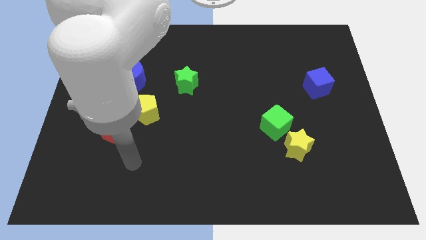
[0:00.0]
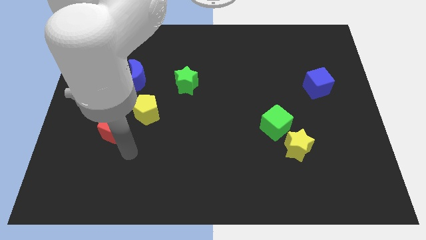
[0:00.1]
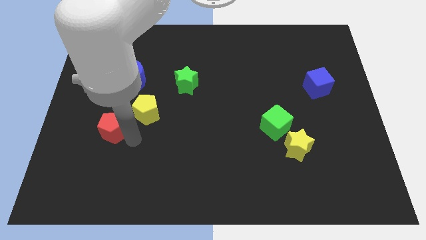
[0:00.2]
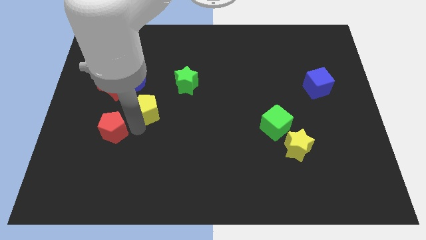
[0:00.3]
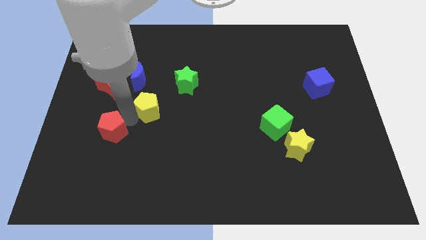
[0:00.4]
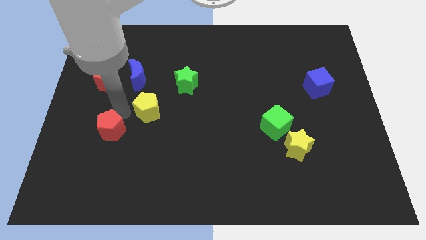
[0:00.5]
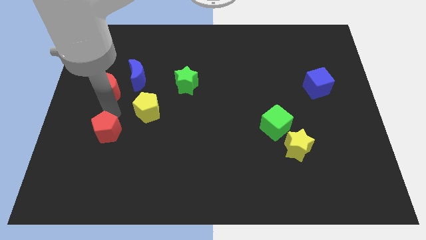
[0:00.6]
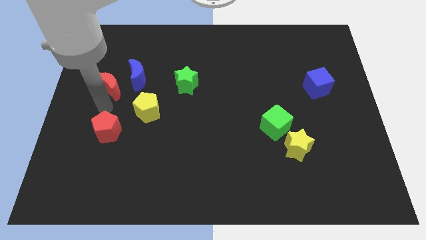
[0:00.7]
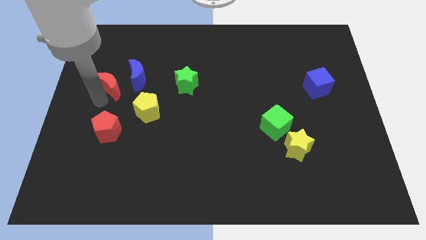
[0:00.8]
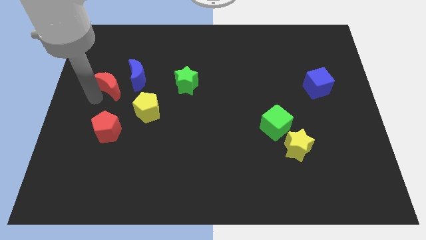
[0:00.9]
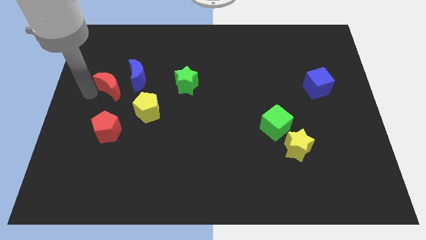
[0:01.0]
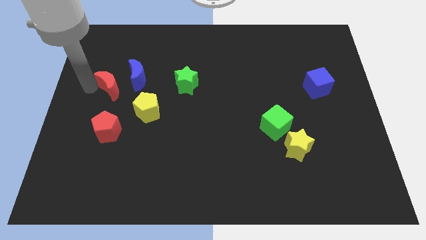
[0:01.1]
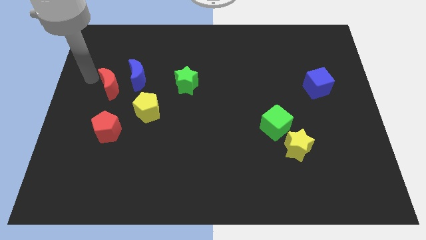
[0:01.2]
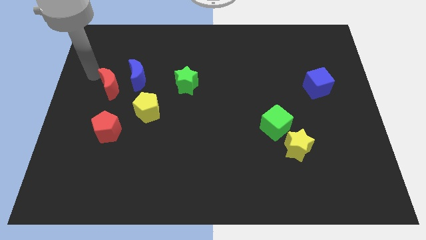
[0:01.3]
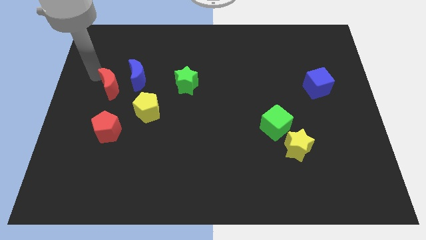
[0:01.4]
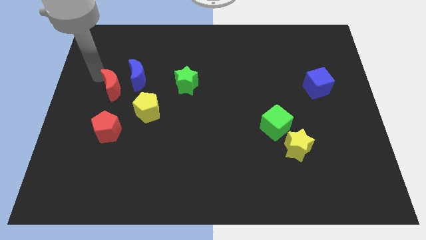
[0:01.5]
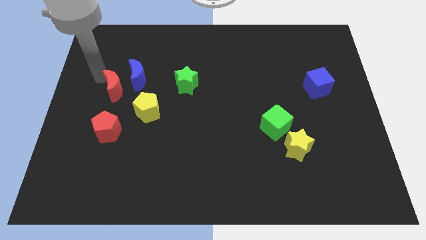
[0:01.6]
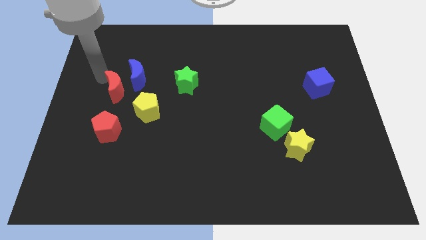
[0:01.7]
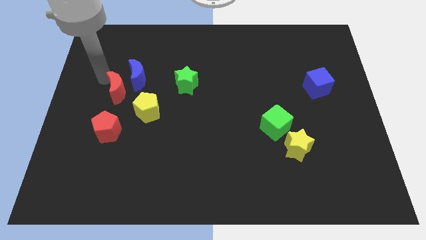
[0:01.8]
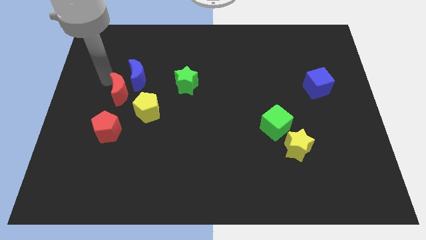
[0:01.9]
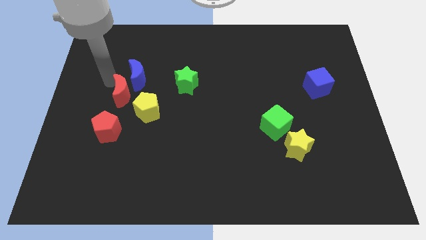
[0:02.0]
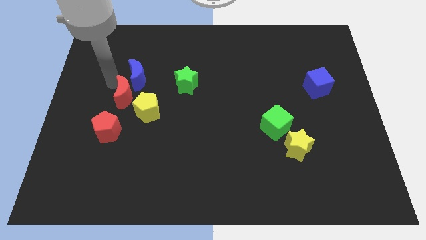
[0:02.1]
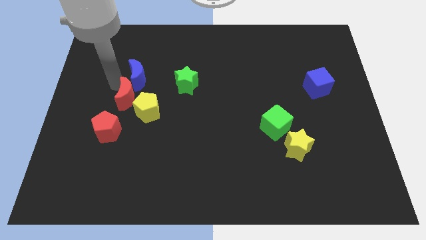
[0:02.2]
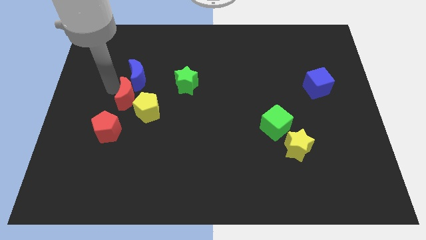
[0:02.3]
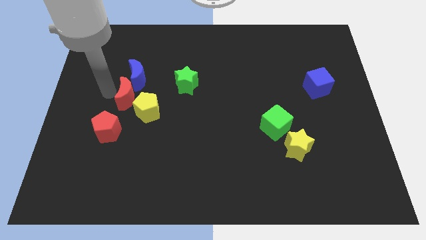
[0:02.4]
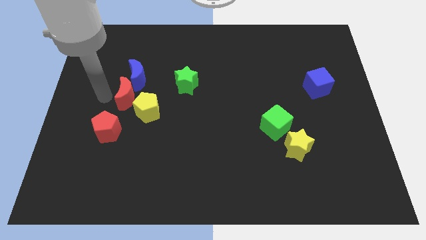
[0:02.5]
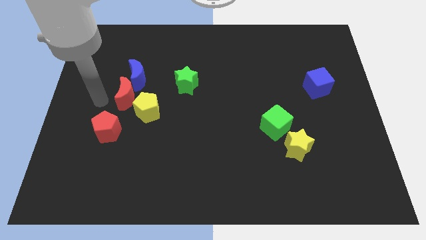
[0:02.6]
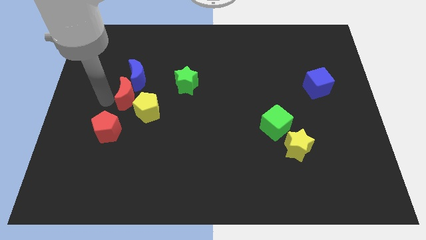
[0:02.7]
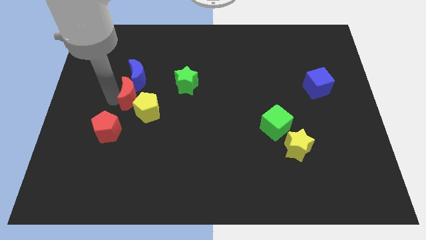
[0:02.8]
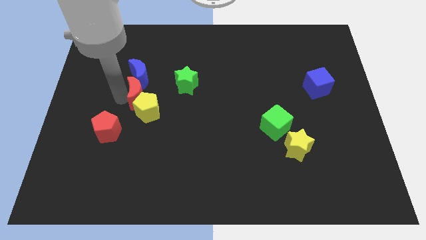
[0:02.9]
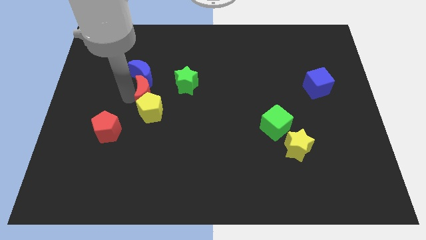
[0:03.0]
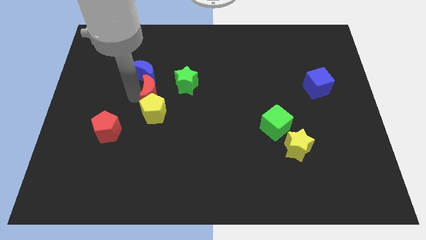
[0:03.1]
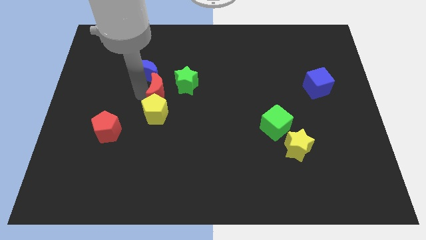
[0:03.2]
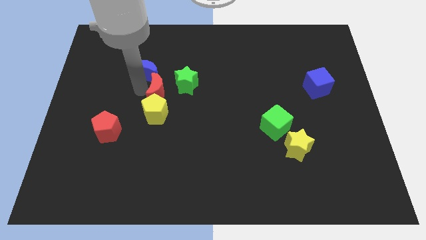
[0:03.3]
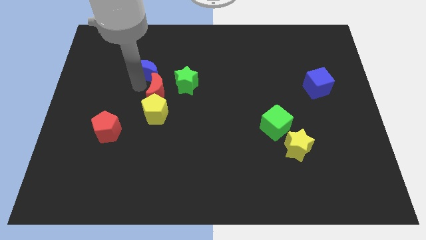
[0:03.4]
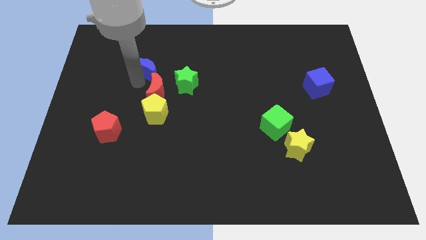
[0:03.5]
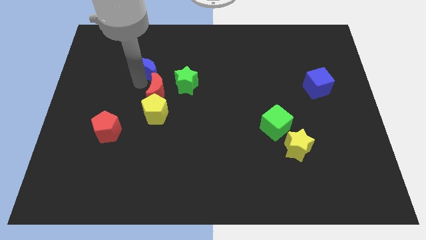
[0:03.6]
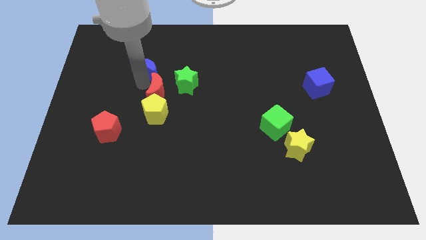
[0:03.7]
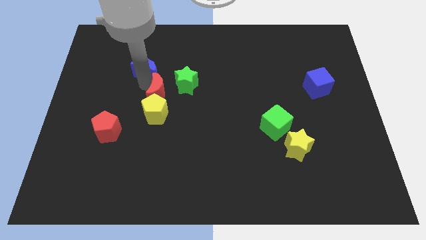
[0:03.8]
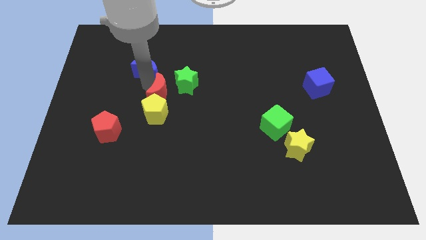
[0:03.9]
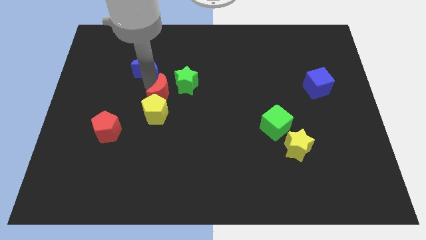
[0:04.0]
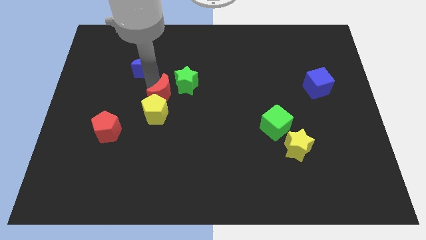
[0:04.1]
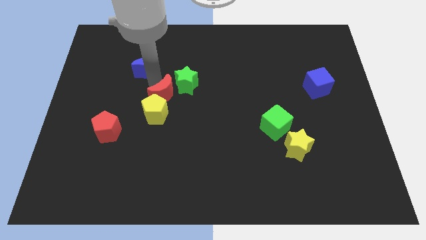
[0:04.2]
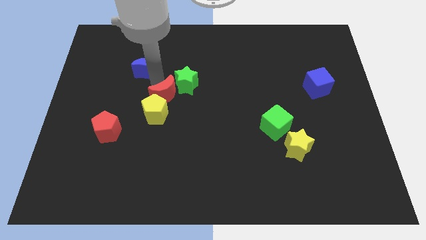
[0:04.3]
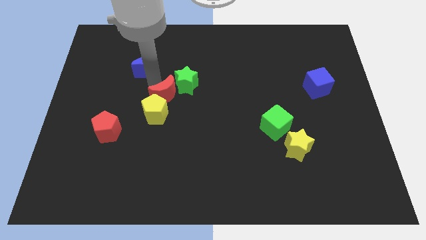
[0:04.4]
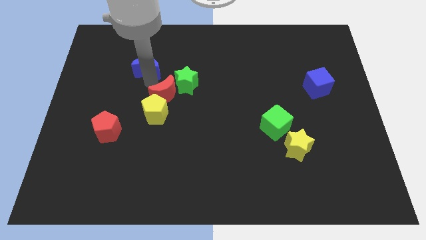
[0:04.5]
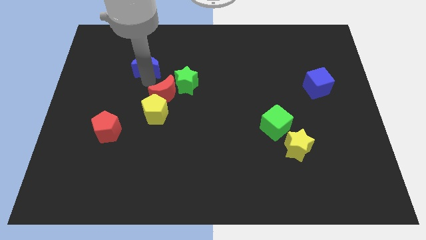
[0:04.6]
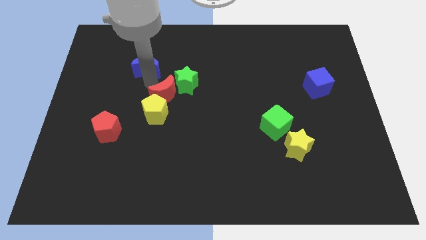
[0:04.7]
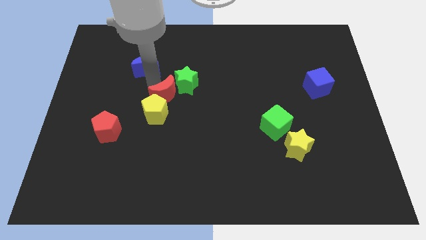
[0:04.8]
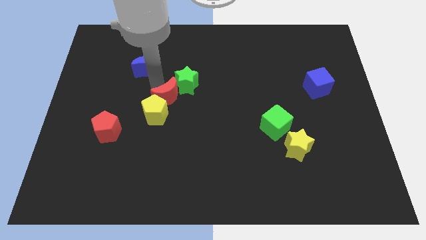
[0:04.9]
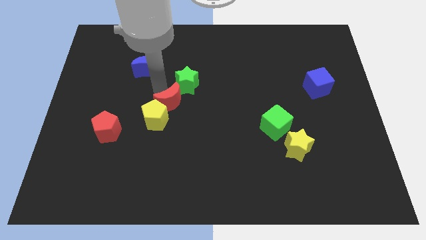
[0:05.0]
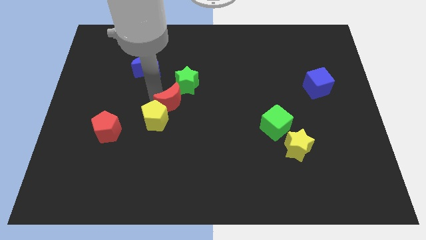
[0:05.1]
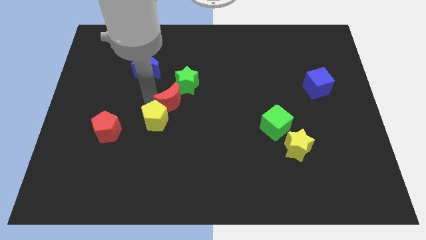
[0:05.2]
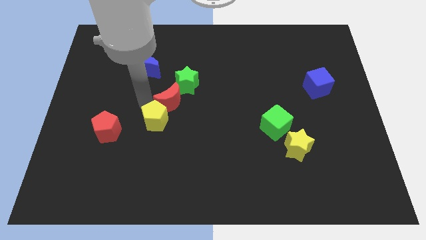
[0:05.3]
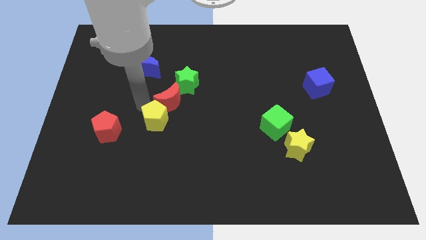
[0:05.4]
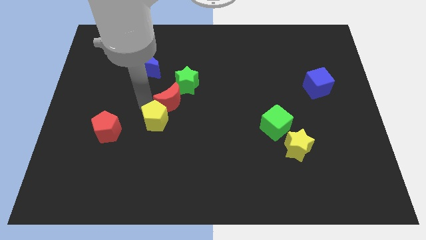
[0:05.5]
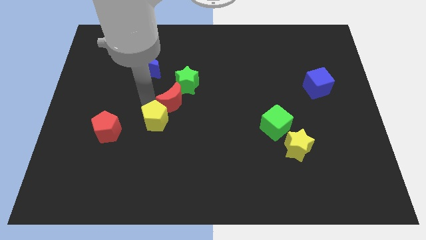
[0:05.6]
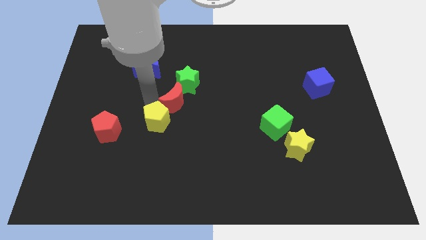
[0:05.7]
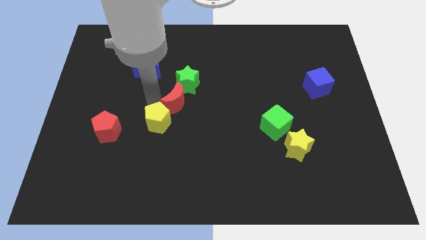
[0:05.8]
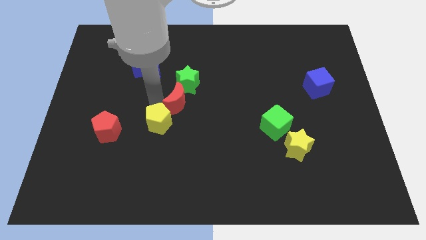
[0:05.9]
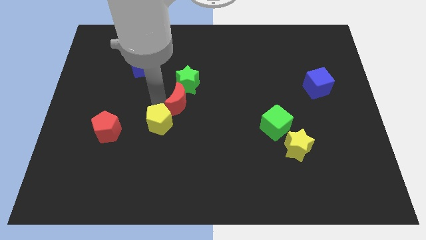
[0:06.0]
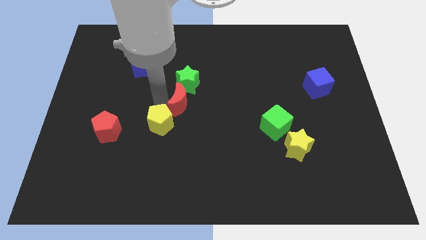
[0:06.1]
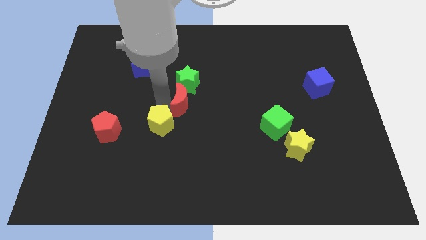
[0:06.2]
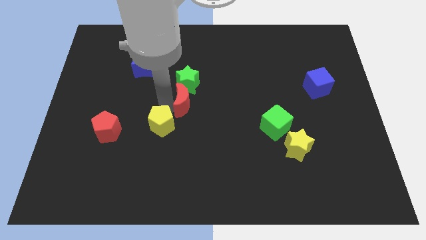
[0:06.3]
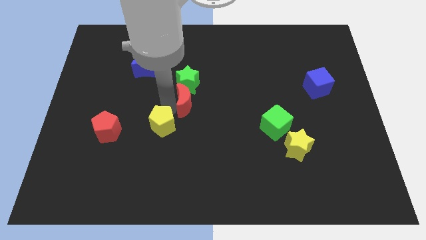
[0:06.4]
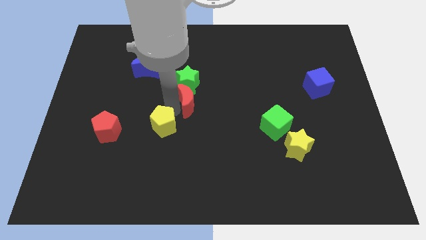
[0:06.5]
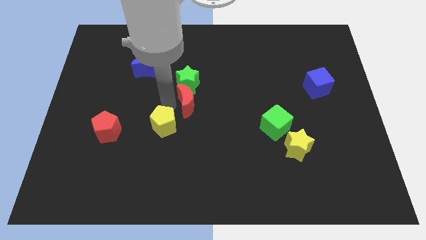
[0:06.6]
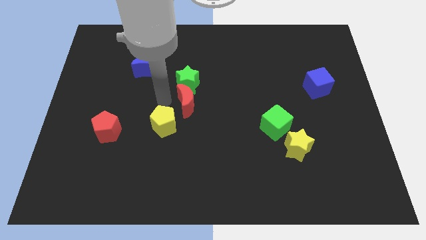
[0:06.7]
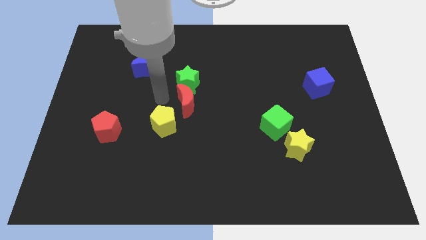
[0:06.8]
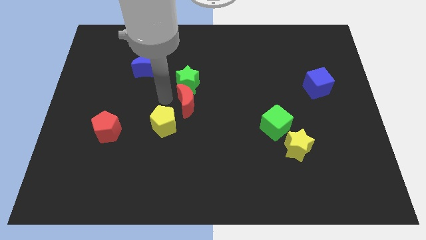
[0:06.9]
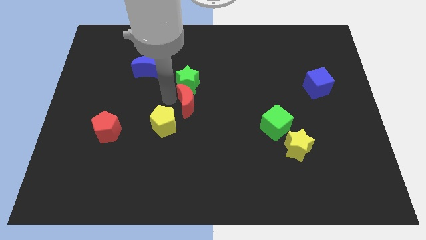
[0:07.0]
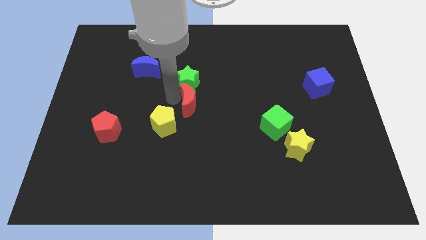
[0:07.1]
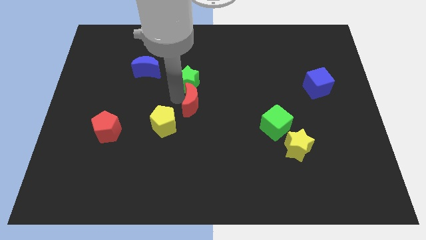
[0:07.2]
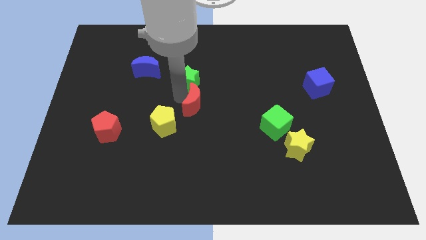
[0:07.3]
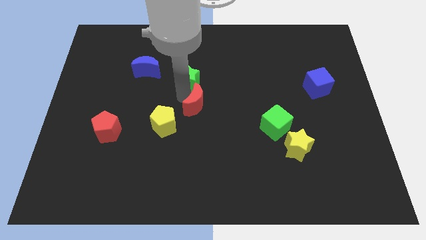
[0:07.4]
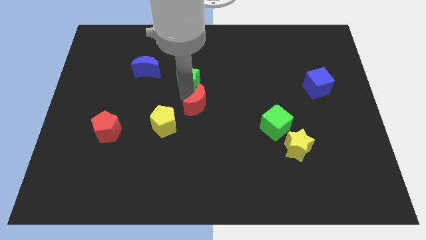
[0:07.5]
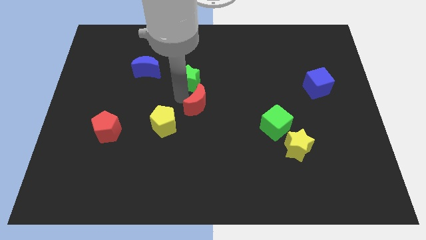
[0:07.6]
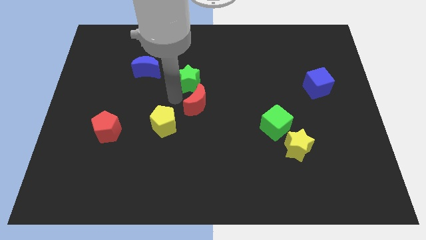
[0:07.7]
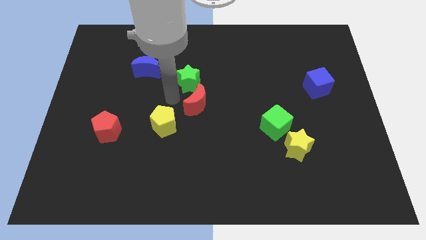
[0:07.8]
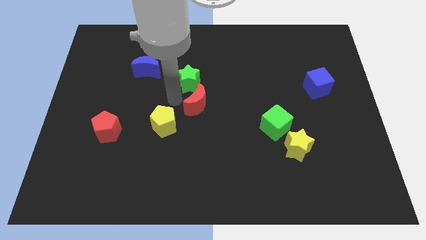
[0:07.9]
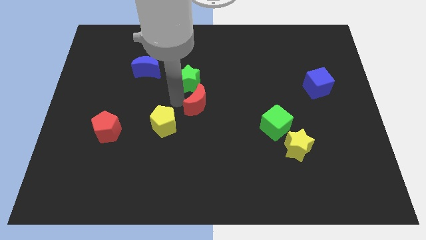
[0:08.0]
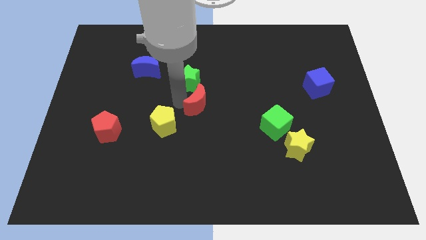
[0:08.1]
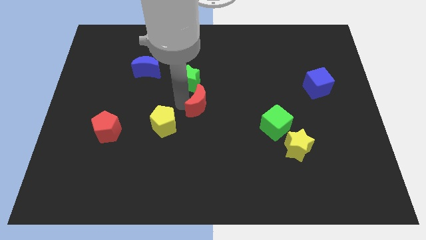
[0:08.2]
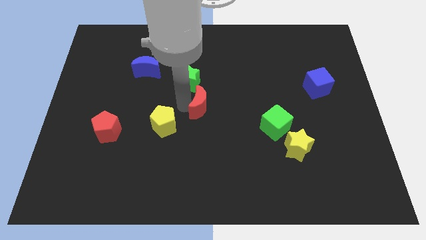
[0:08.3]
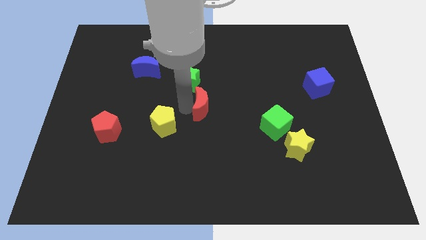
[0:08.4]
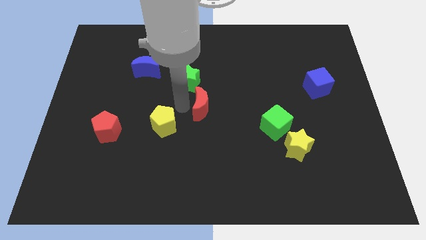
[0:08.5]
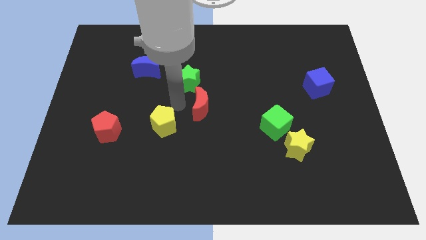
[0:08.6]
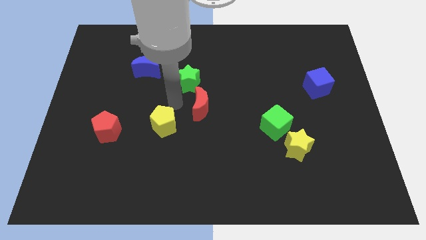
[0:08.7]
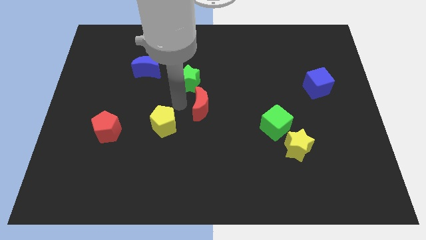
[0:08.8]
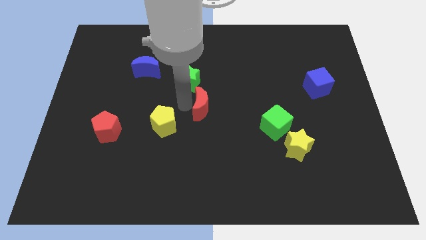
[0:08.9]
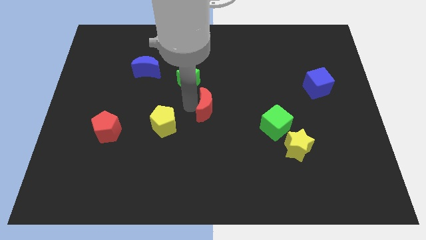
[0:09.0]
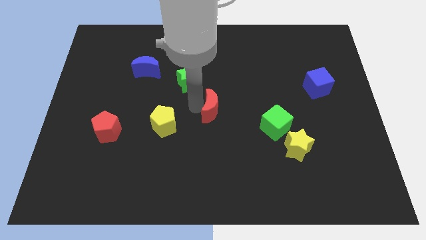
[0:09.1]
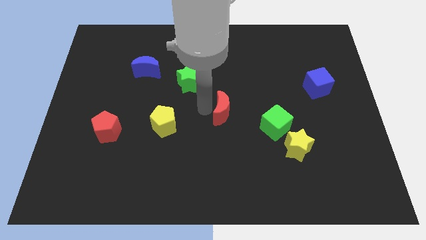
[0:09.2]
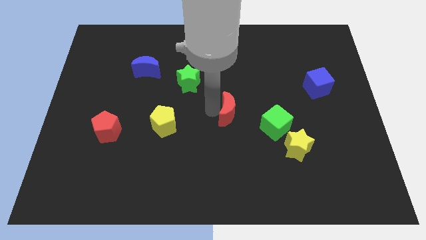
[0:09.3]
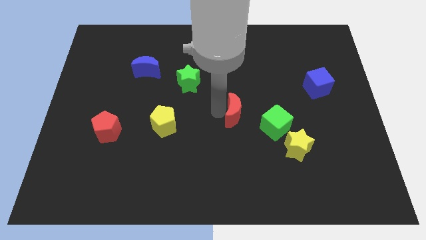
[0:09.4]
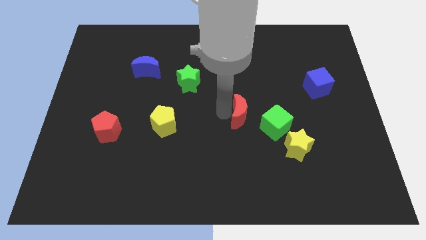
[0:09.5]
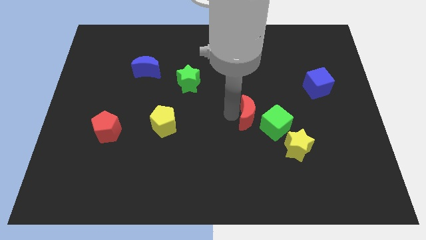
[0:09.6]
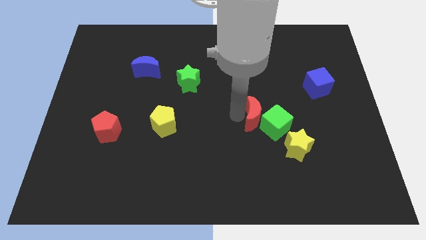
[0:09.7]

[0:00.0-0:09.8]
put the red moon towards the green cube
